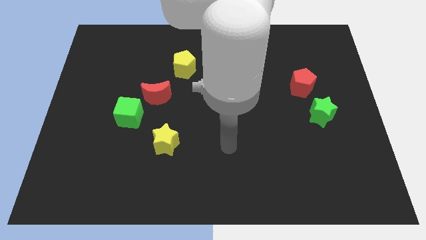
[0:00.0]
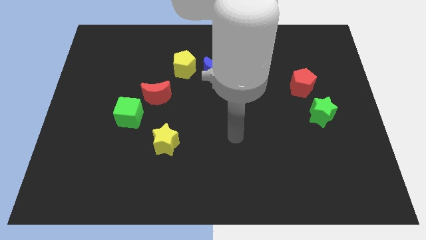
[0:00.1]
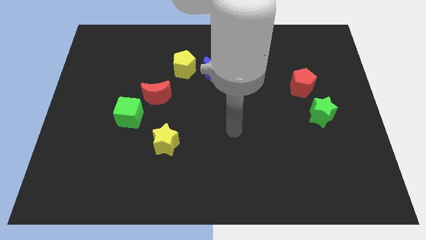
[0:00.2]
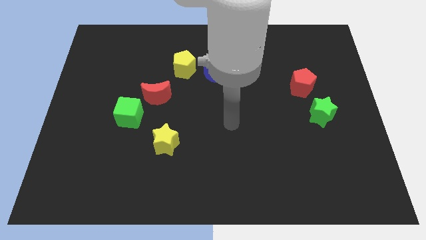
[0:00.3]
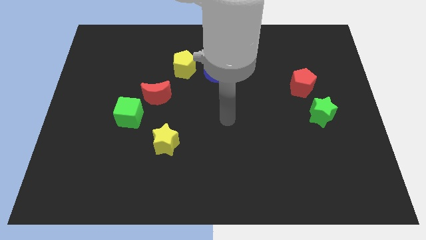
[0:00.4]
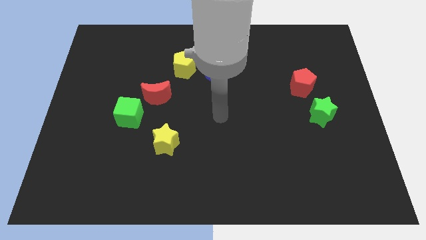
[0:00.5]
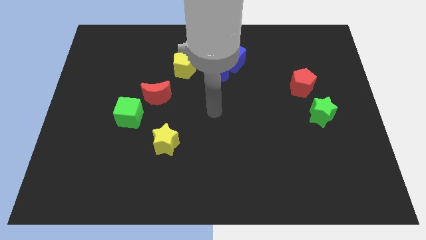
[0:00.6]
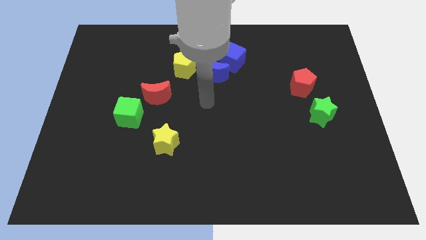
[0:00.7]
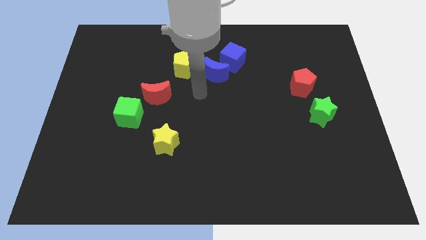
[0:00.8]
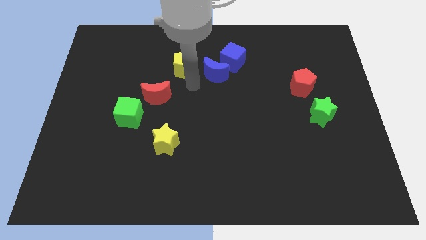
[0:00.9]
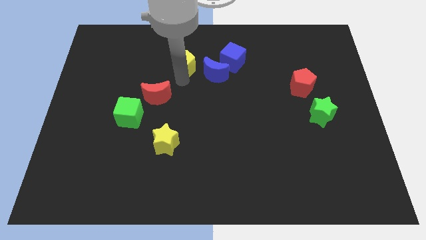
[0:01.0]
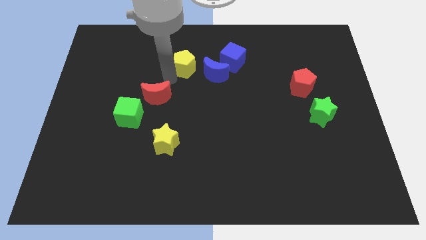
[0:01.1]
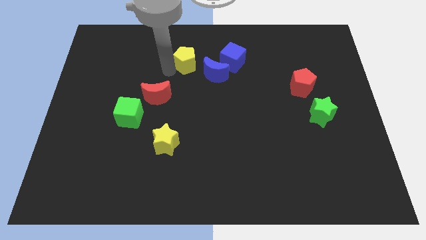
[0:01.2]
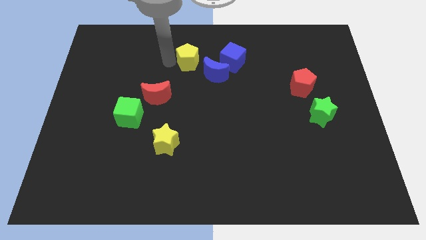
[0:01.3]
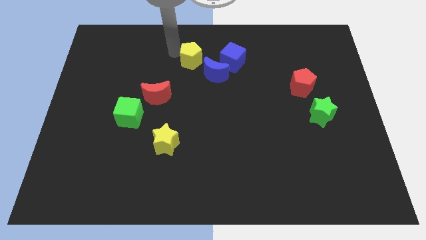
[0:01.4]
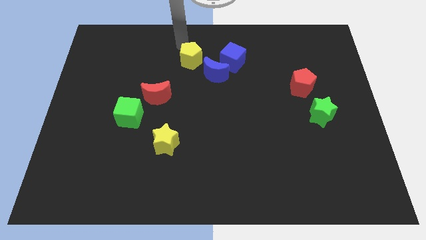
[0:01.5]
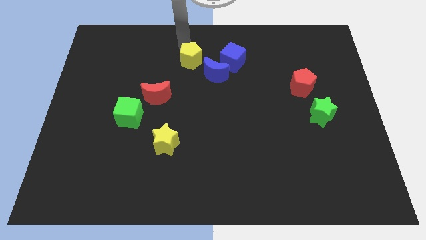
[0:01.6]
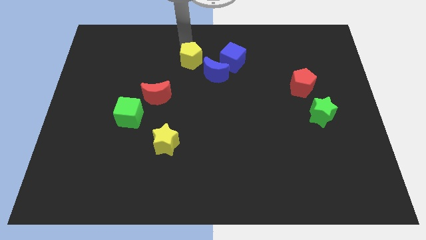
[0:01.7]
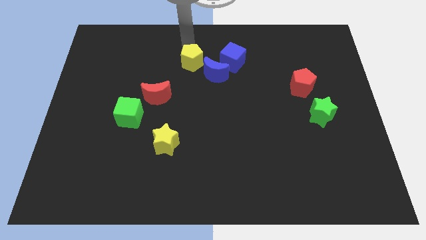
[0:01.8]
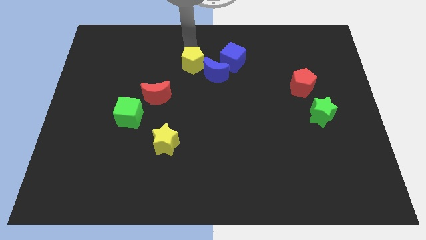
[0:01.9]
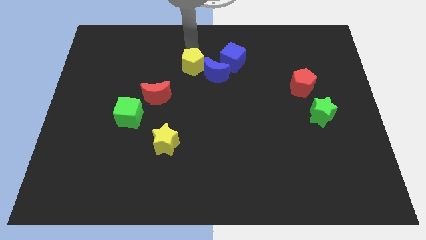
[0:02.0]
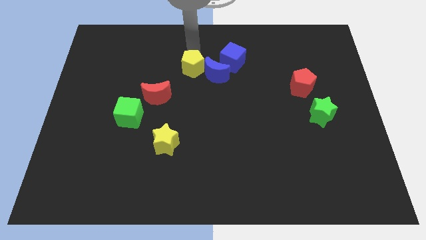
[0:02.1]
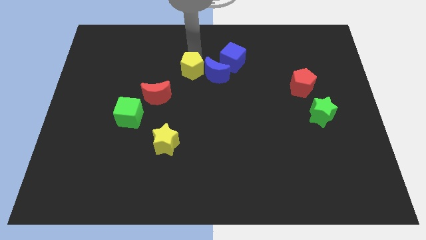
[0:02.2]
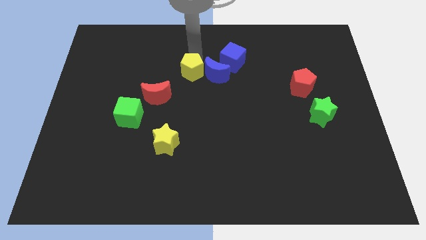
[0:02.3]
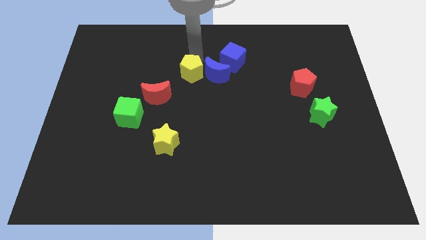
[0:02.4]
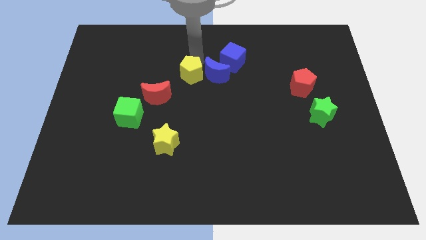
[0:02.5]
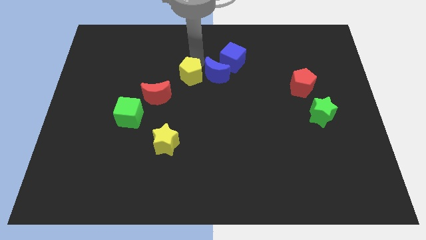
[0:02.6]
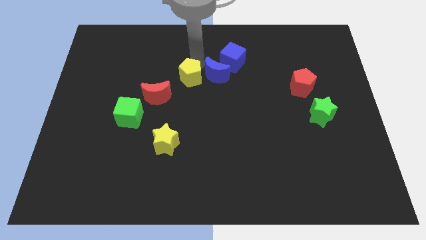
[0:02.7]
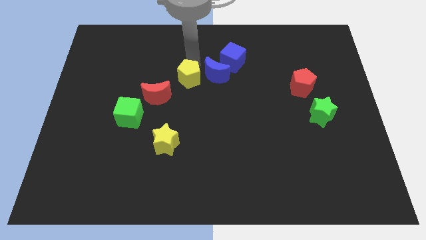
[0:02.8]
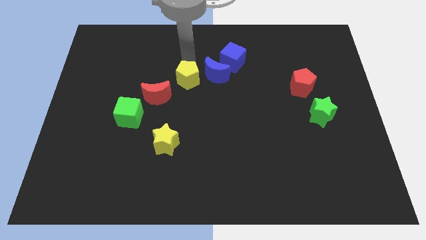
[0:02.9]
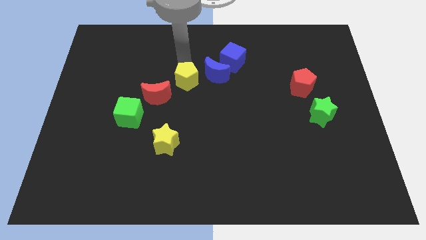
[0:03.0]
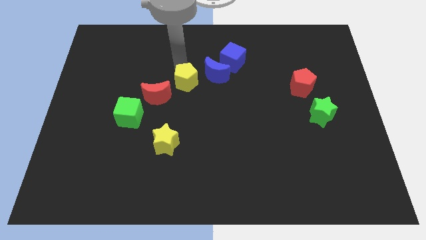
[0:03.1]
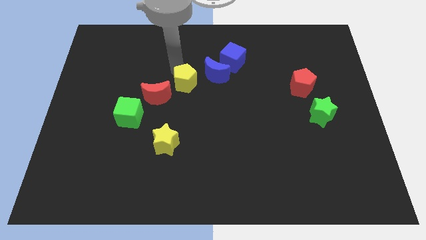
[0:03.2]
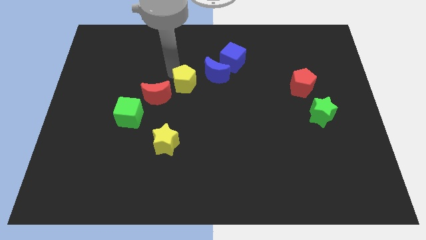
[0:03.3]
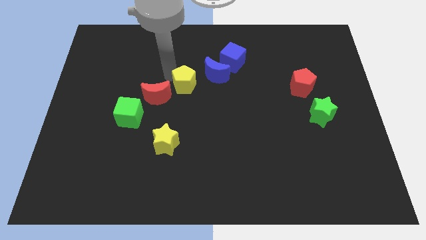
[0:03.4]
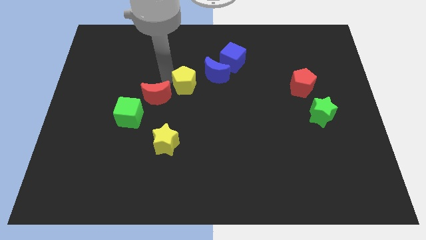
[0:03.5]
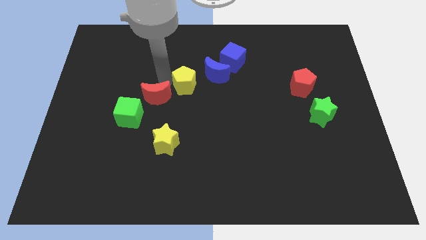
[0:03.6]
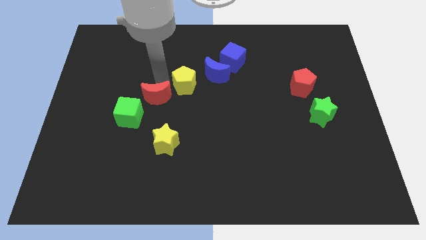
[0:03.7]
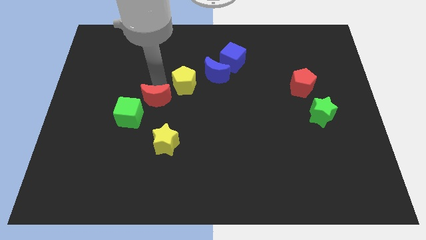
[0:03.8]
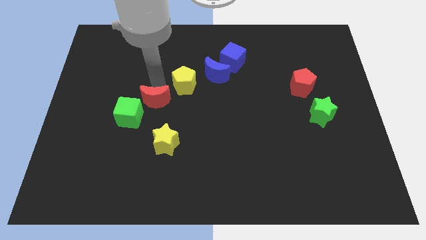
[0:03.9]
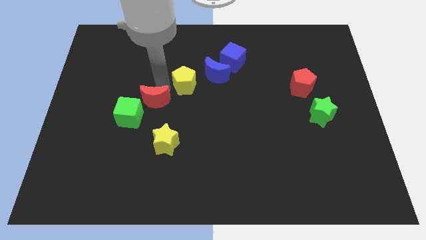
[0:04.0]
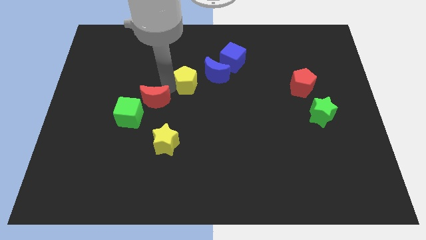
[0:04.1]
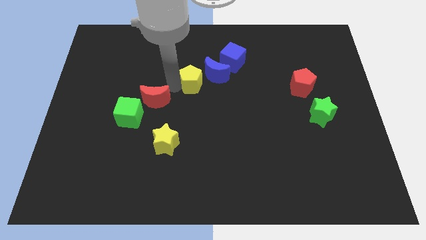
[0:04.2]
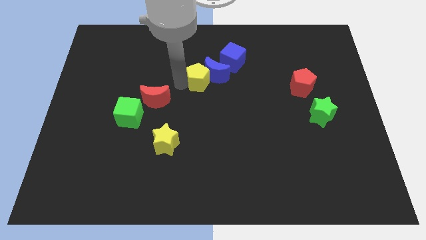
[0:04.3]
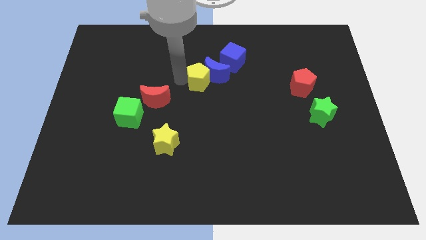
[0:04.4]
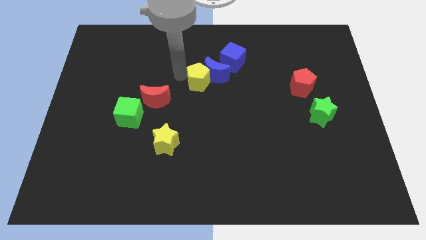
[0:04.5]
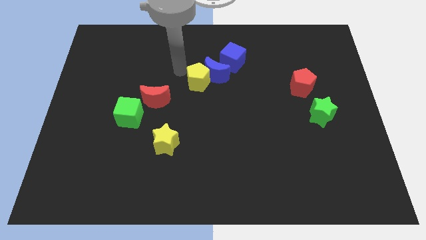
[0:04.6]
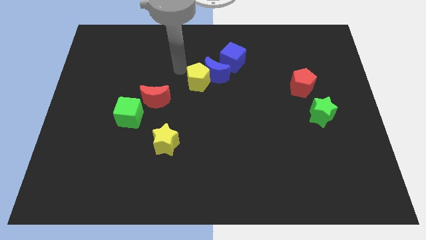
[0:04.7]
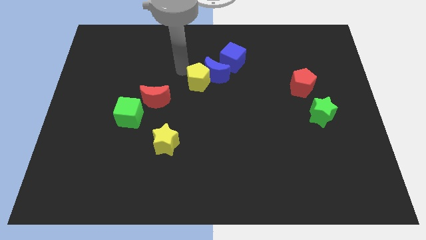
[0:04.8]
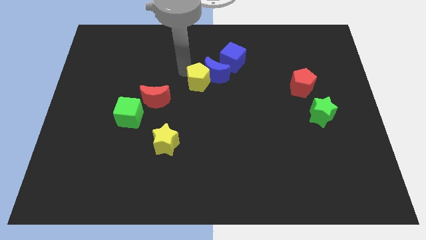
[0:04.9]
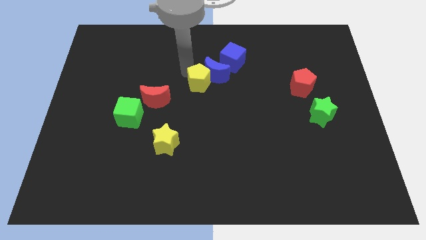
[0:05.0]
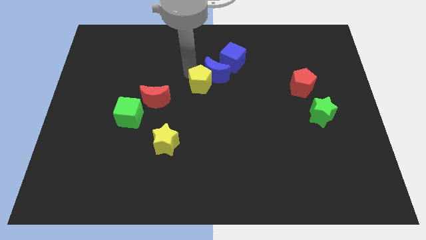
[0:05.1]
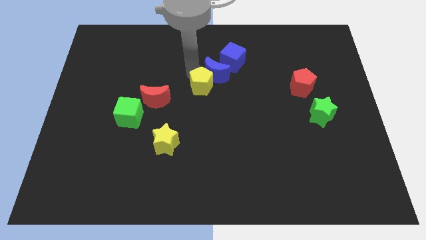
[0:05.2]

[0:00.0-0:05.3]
push the yellow pentagon a bit downwards and to the right diagonally

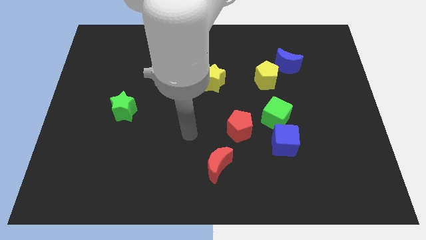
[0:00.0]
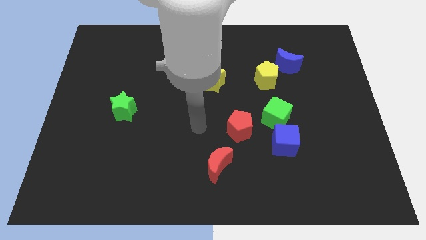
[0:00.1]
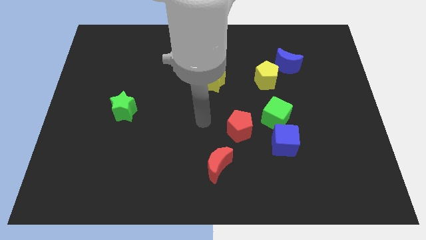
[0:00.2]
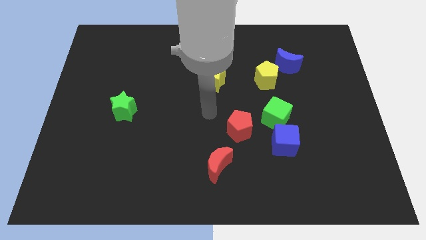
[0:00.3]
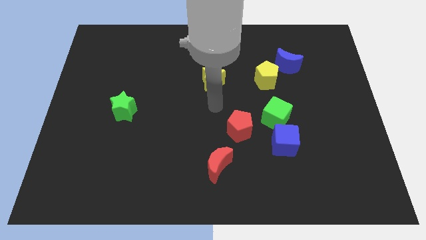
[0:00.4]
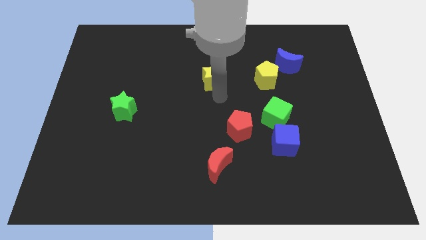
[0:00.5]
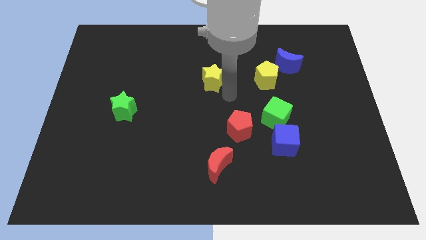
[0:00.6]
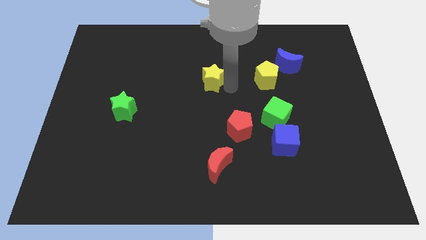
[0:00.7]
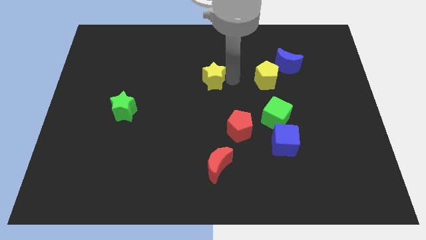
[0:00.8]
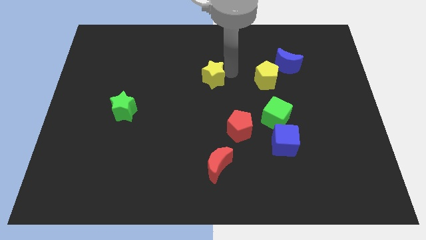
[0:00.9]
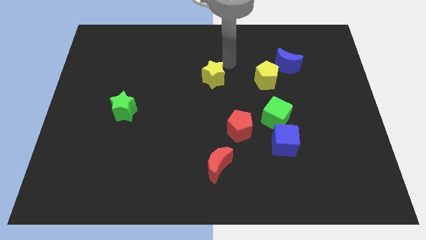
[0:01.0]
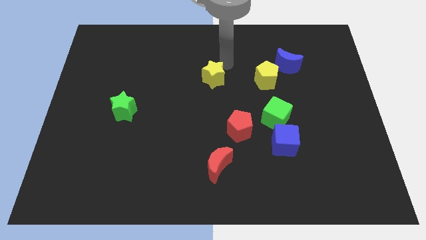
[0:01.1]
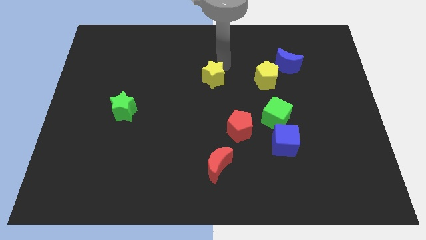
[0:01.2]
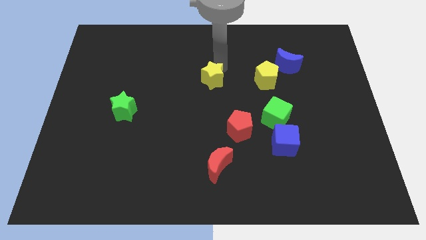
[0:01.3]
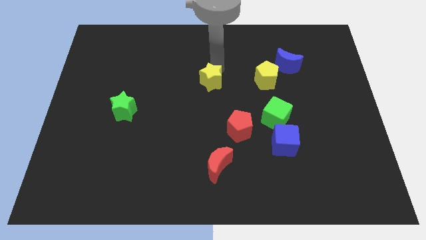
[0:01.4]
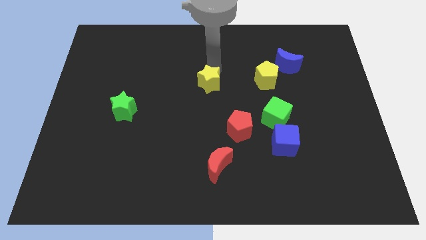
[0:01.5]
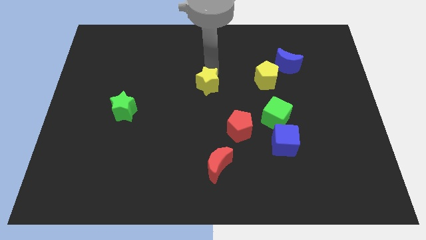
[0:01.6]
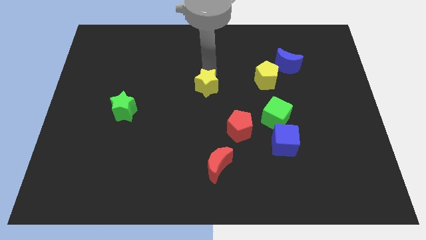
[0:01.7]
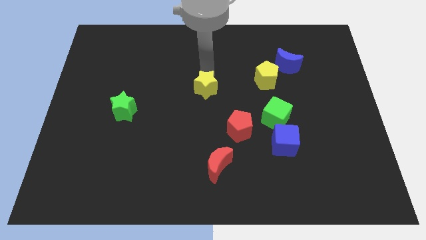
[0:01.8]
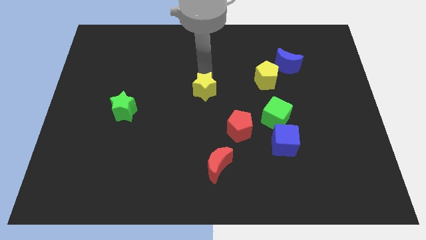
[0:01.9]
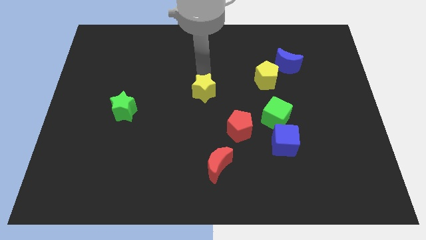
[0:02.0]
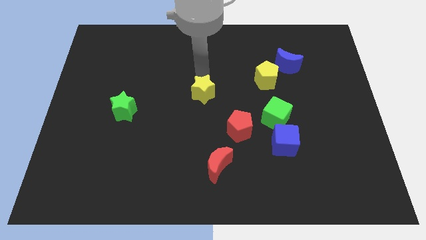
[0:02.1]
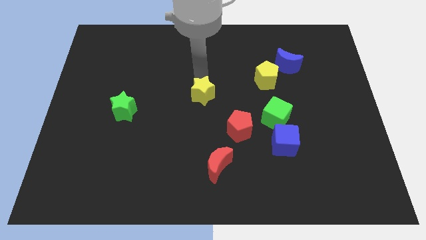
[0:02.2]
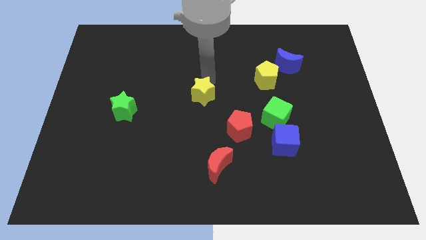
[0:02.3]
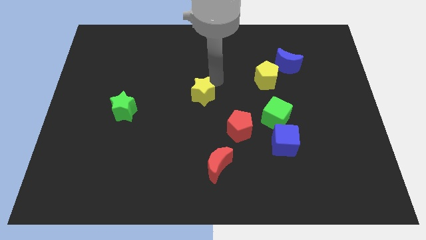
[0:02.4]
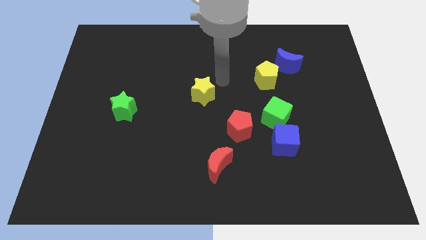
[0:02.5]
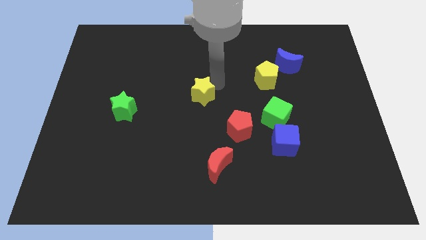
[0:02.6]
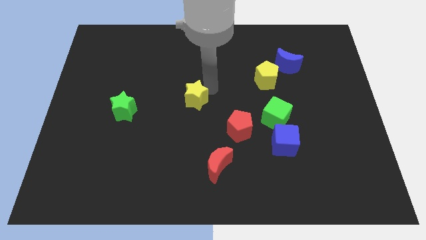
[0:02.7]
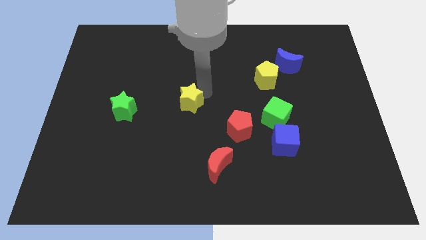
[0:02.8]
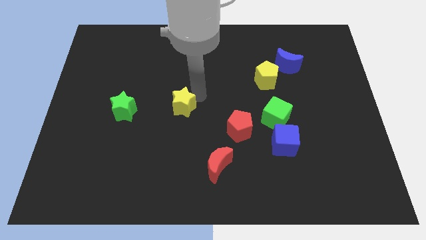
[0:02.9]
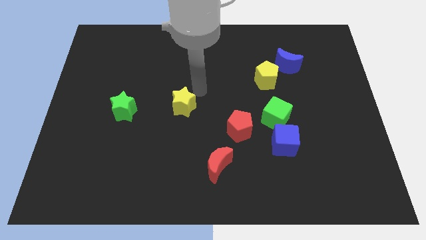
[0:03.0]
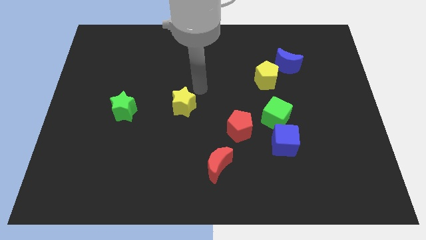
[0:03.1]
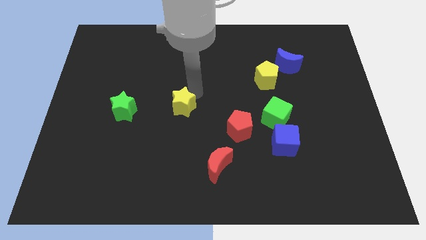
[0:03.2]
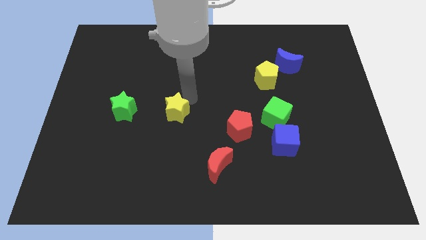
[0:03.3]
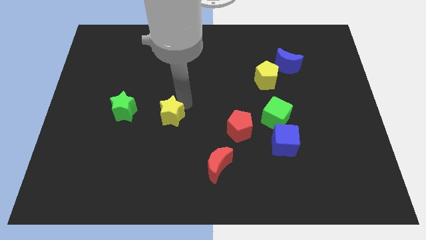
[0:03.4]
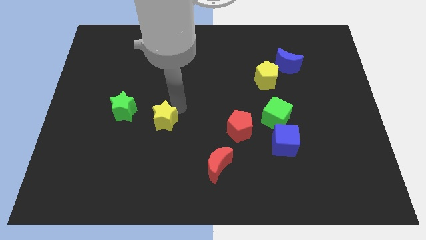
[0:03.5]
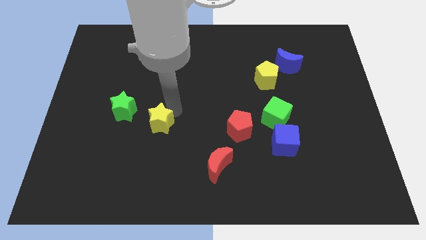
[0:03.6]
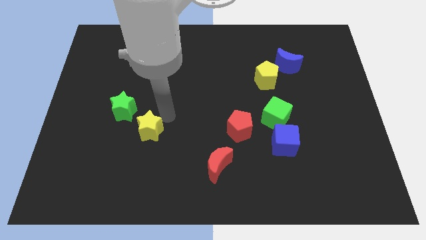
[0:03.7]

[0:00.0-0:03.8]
slide the yellow star diagonally down and left
